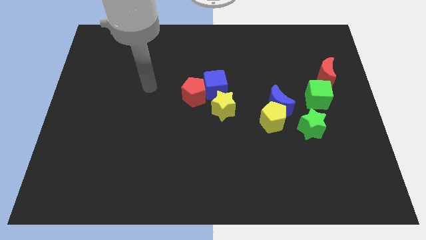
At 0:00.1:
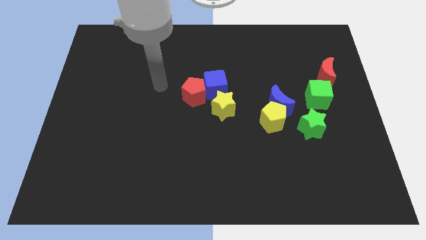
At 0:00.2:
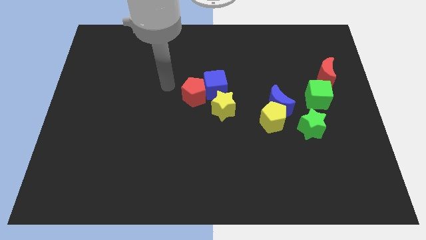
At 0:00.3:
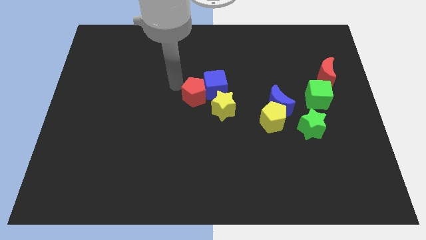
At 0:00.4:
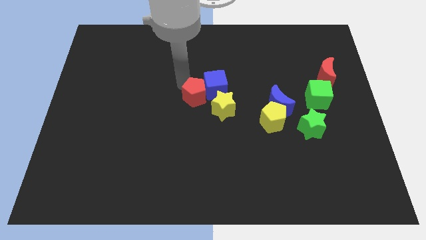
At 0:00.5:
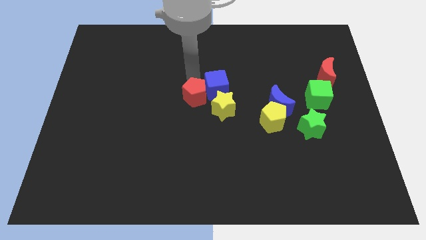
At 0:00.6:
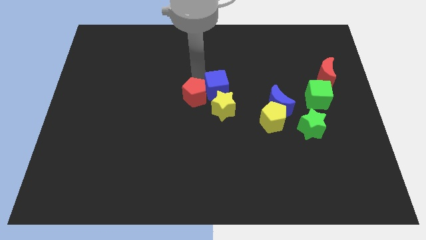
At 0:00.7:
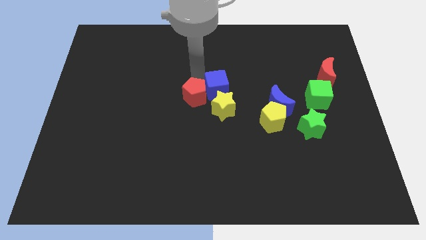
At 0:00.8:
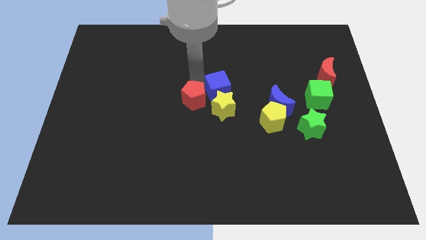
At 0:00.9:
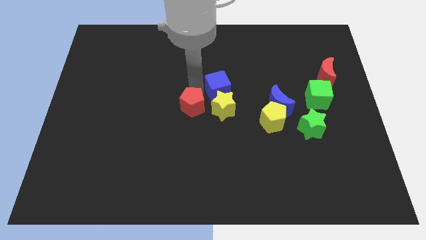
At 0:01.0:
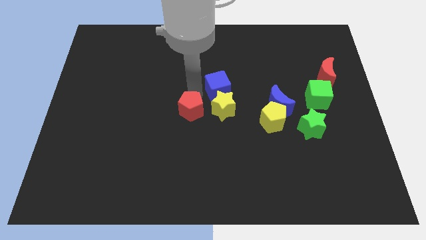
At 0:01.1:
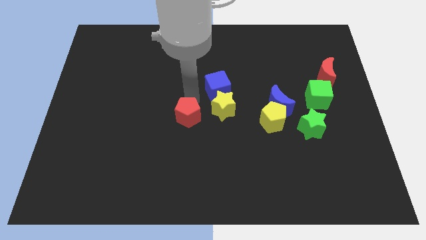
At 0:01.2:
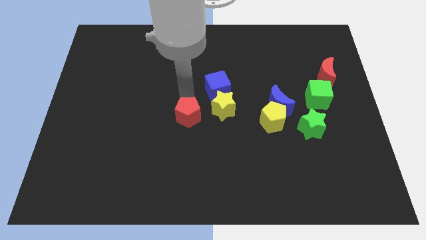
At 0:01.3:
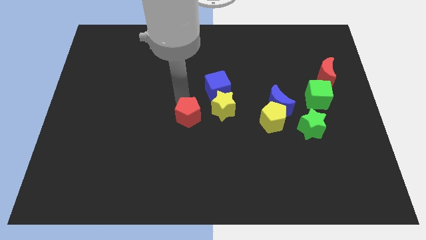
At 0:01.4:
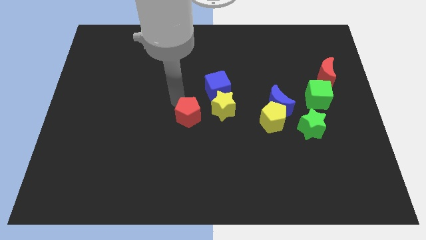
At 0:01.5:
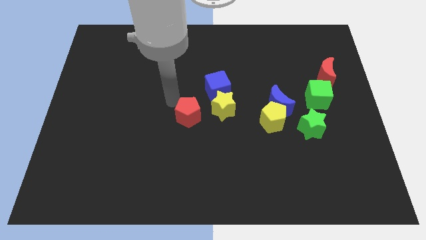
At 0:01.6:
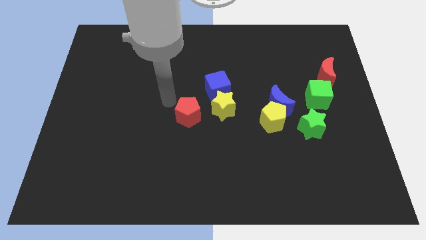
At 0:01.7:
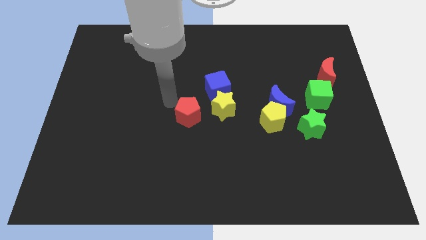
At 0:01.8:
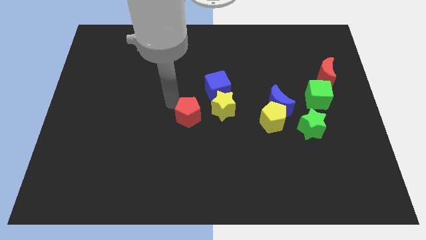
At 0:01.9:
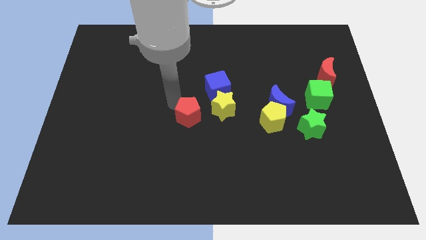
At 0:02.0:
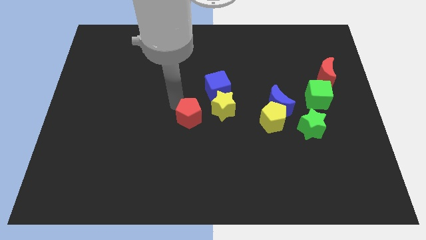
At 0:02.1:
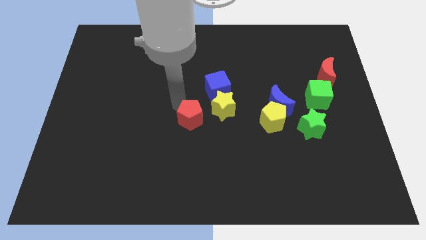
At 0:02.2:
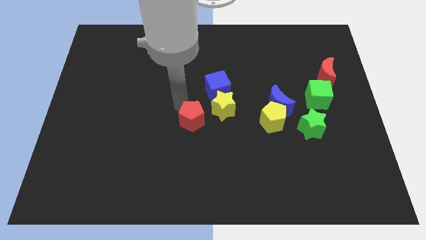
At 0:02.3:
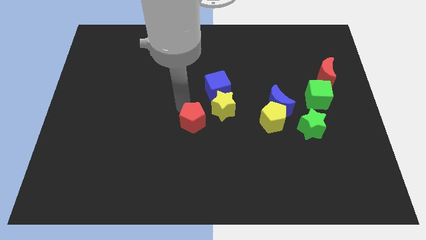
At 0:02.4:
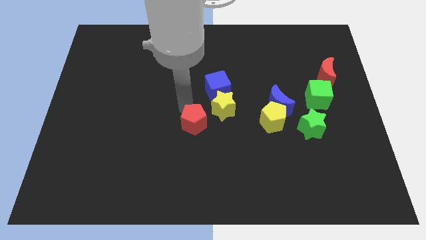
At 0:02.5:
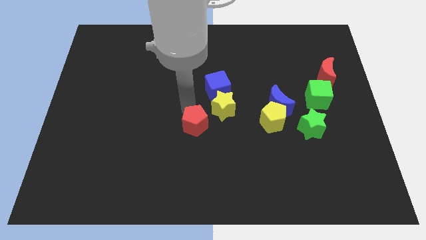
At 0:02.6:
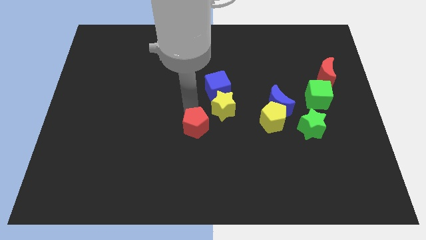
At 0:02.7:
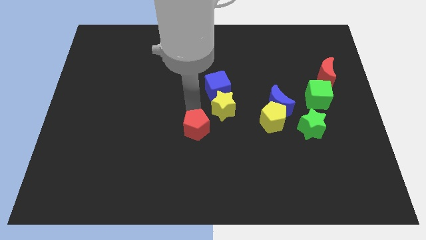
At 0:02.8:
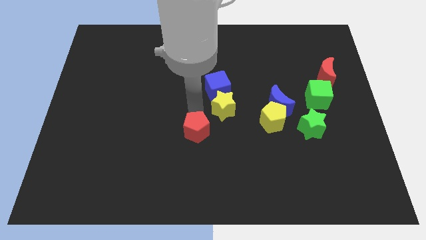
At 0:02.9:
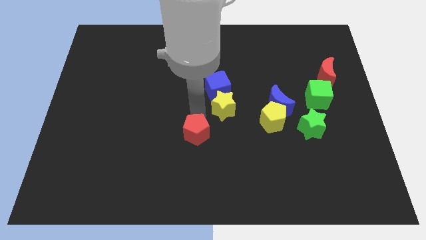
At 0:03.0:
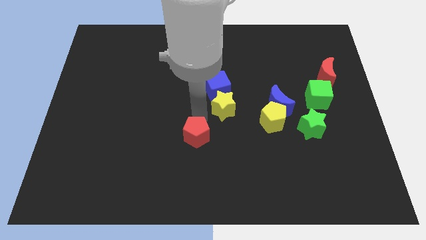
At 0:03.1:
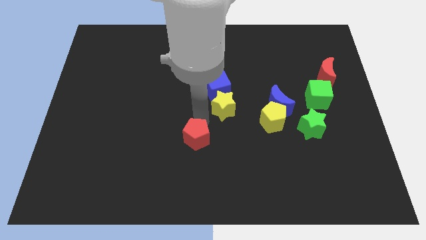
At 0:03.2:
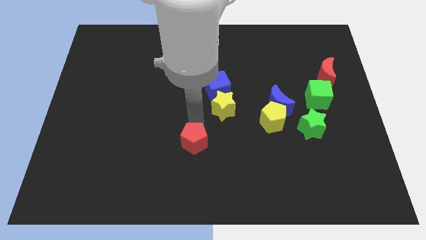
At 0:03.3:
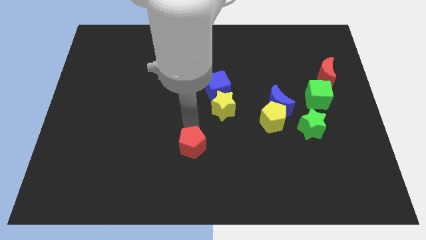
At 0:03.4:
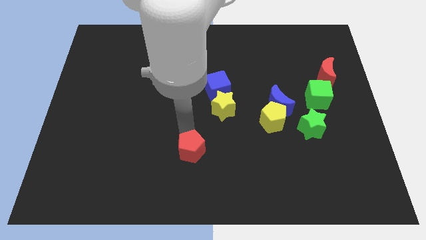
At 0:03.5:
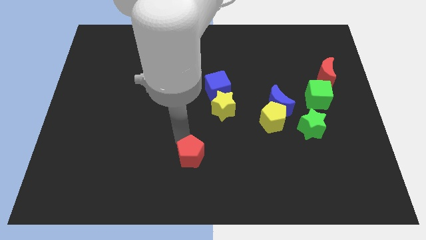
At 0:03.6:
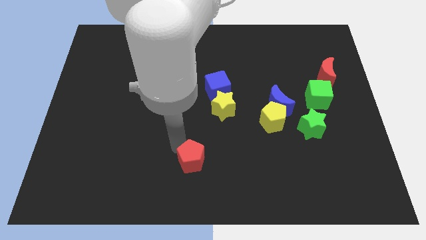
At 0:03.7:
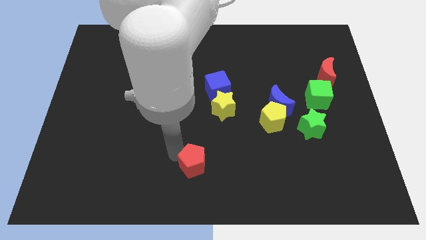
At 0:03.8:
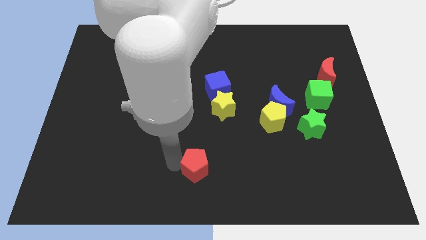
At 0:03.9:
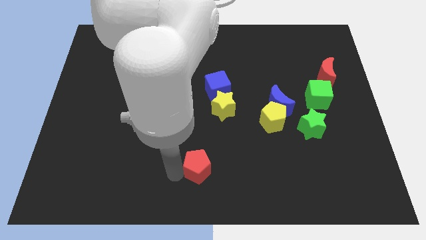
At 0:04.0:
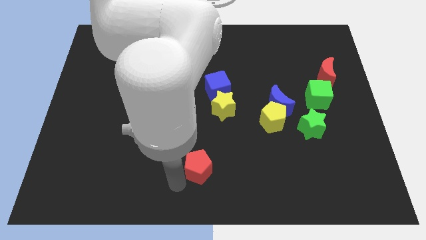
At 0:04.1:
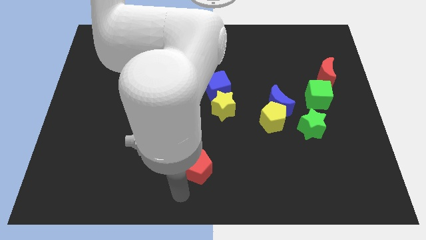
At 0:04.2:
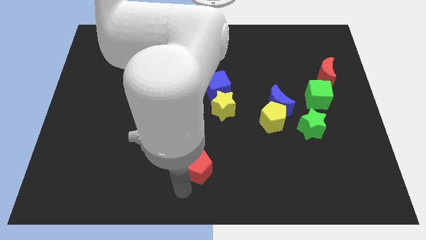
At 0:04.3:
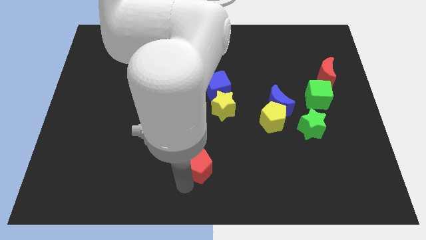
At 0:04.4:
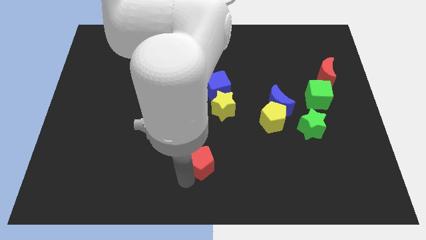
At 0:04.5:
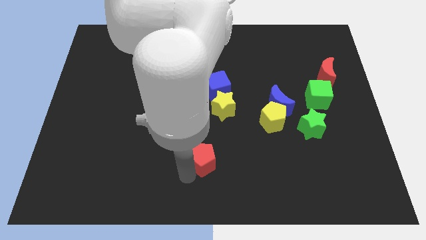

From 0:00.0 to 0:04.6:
move the red pentagon a little downwards and to the right

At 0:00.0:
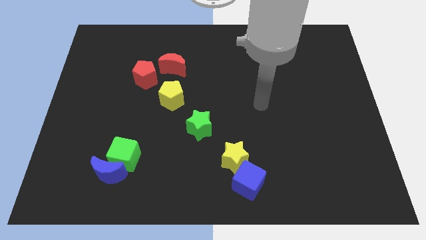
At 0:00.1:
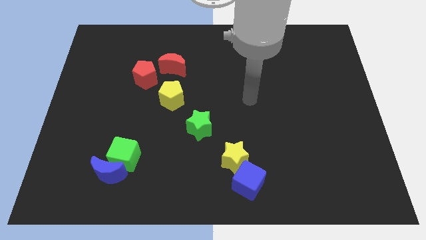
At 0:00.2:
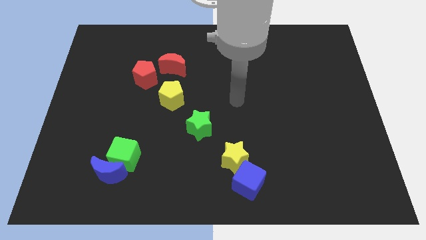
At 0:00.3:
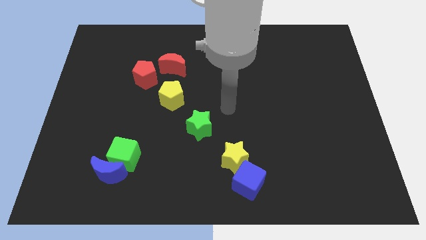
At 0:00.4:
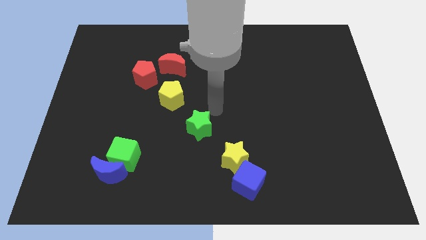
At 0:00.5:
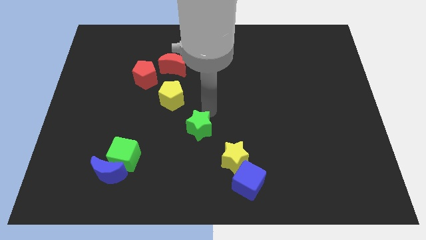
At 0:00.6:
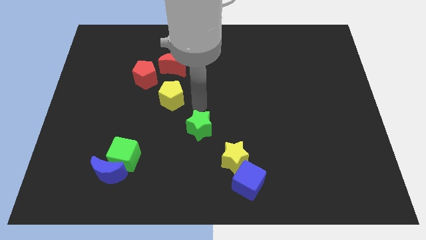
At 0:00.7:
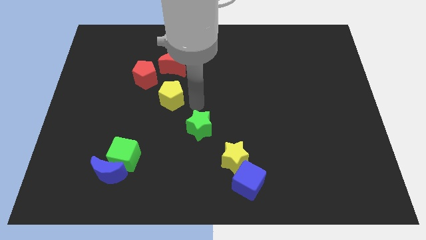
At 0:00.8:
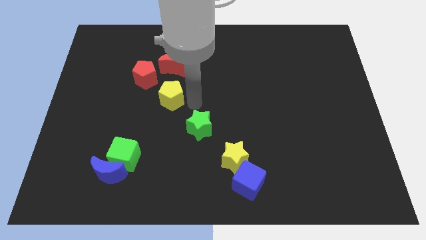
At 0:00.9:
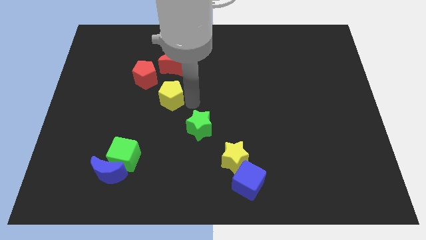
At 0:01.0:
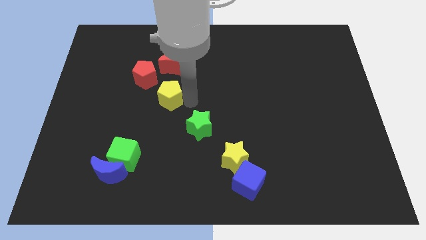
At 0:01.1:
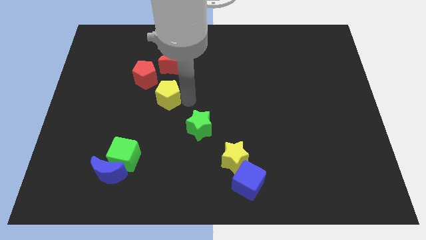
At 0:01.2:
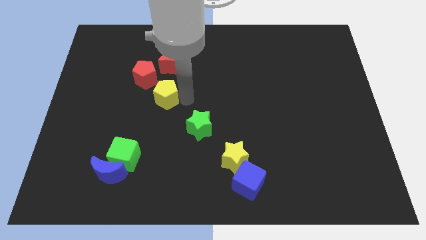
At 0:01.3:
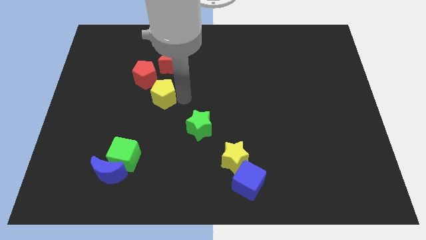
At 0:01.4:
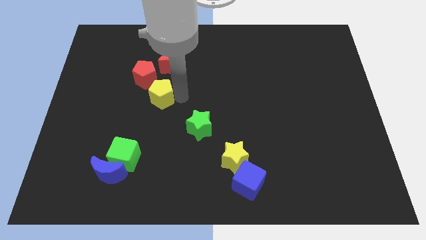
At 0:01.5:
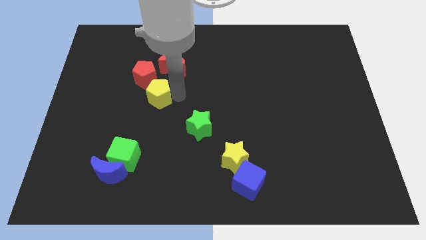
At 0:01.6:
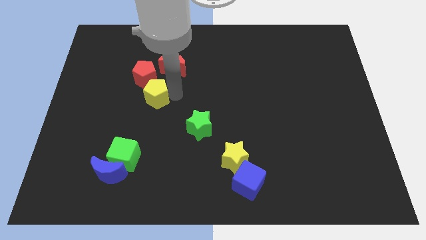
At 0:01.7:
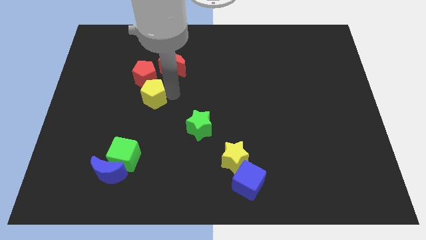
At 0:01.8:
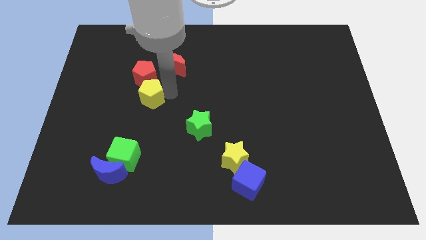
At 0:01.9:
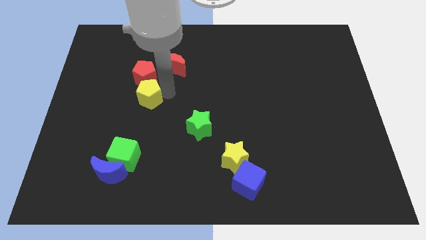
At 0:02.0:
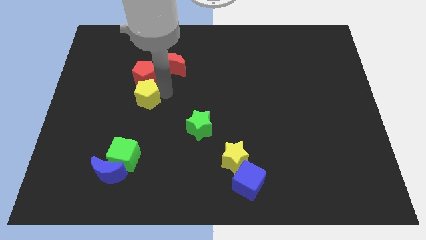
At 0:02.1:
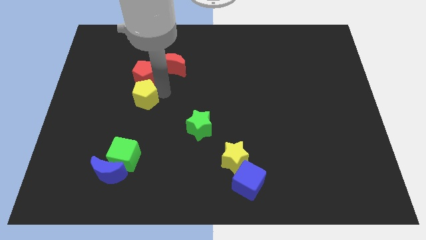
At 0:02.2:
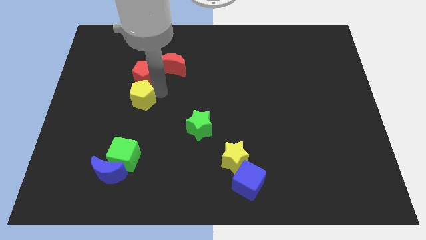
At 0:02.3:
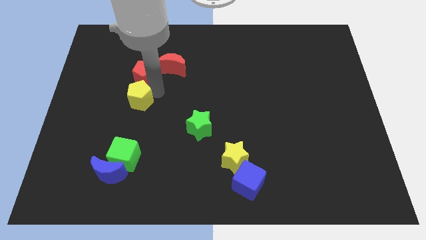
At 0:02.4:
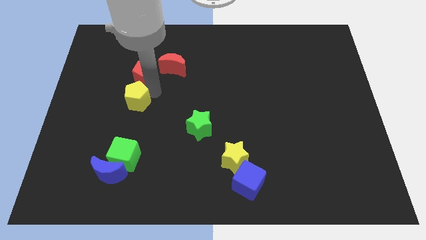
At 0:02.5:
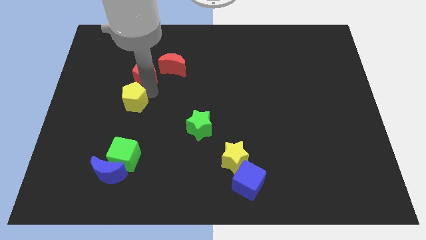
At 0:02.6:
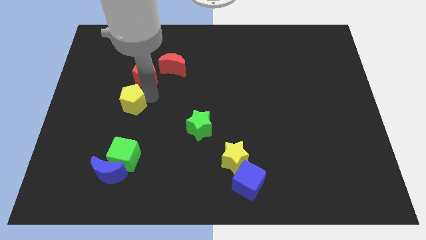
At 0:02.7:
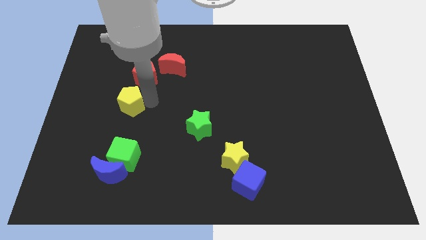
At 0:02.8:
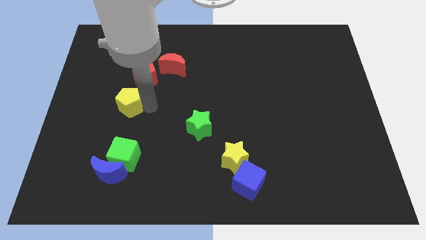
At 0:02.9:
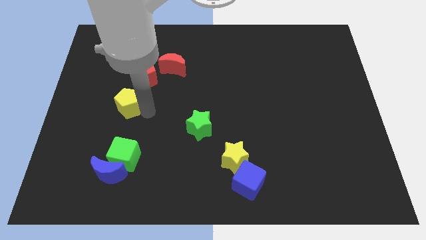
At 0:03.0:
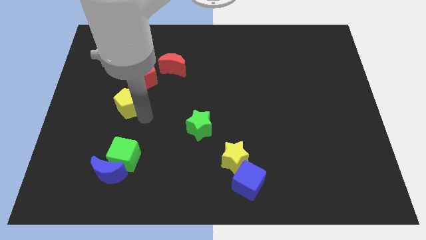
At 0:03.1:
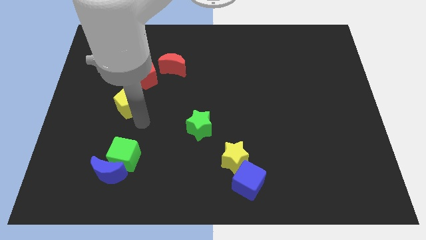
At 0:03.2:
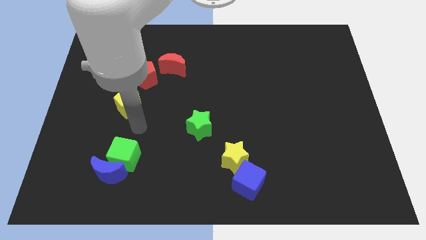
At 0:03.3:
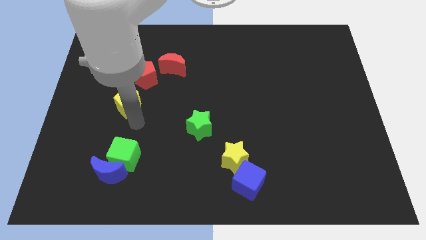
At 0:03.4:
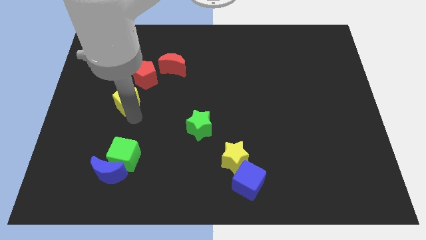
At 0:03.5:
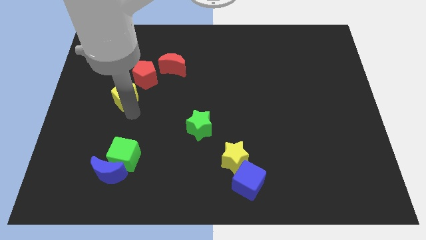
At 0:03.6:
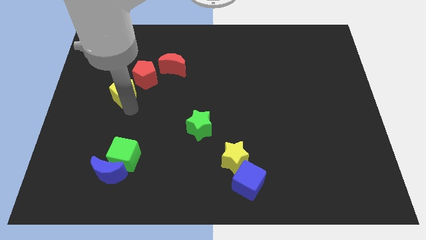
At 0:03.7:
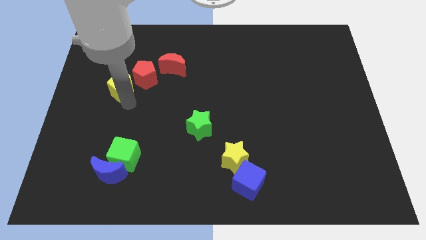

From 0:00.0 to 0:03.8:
move the yellow pentagon upwards and left a little
